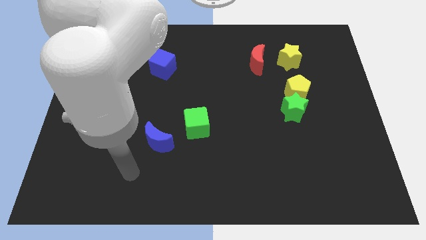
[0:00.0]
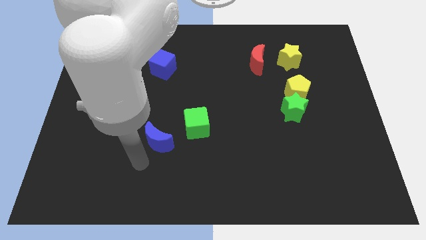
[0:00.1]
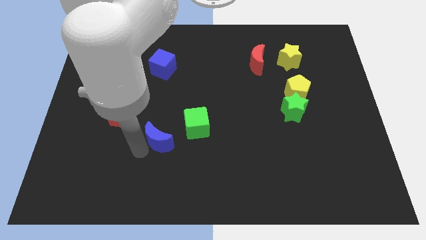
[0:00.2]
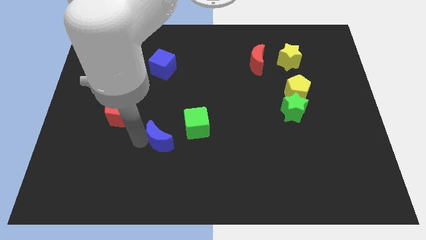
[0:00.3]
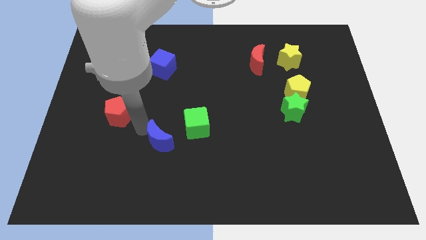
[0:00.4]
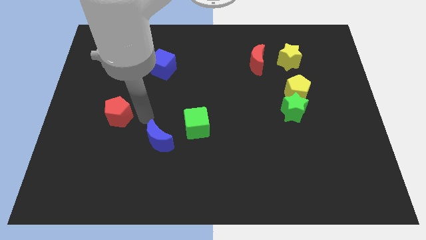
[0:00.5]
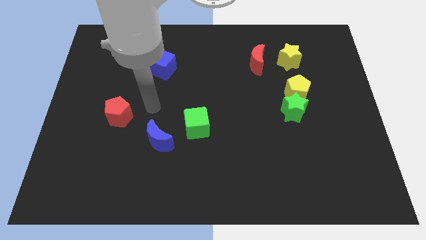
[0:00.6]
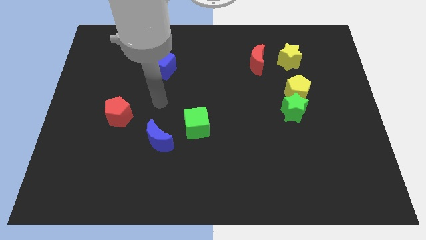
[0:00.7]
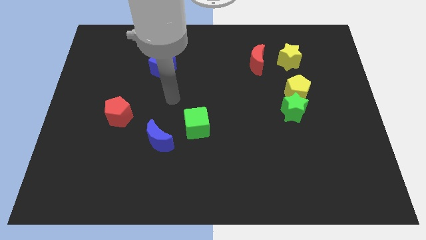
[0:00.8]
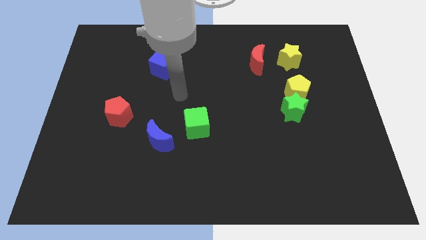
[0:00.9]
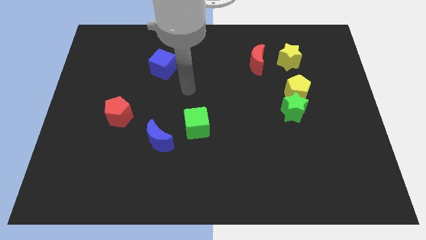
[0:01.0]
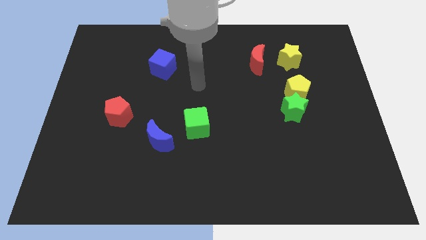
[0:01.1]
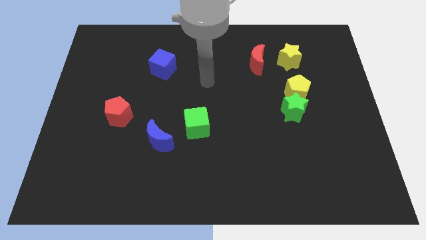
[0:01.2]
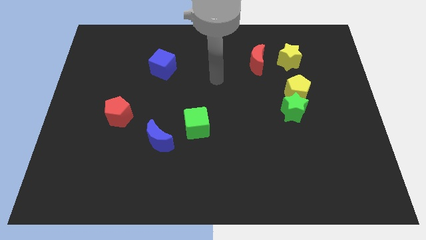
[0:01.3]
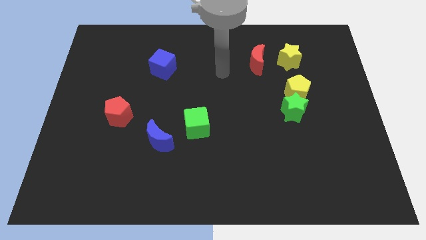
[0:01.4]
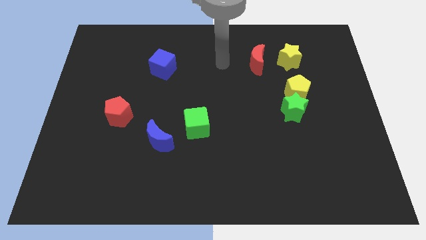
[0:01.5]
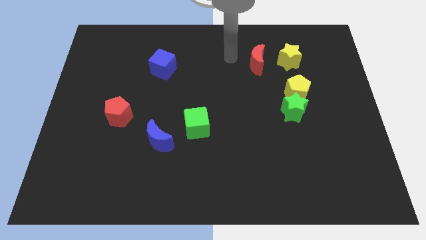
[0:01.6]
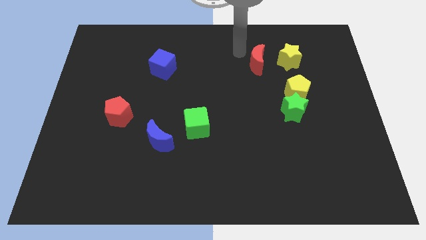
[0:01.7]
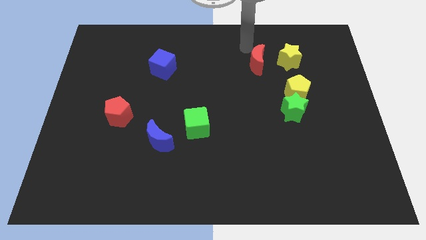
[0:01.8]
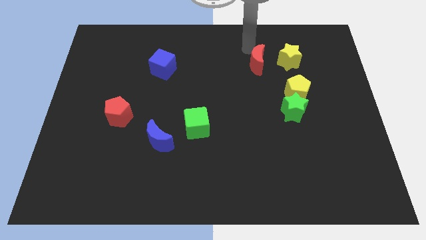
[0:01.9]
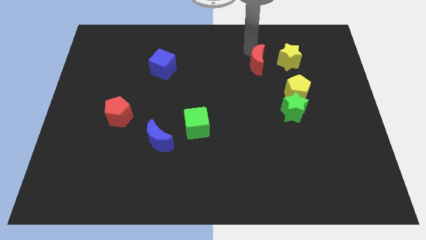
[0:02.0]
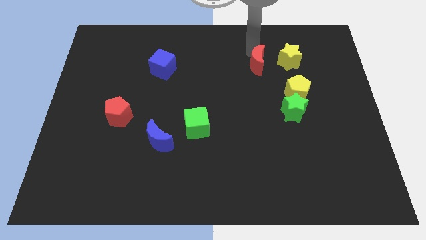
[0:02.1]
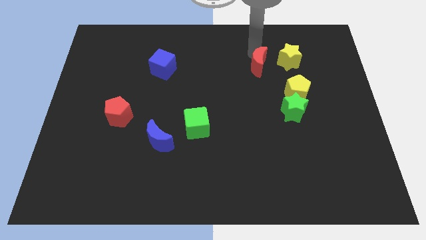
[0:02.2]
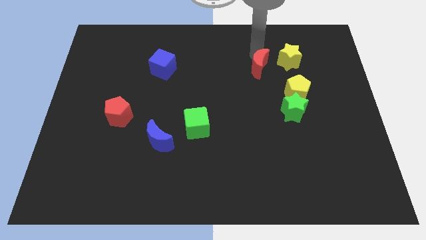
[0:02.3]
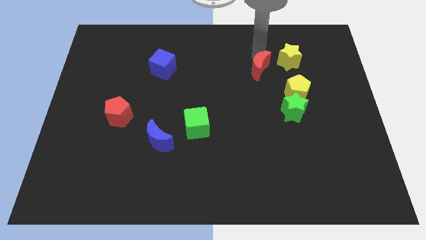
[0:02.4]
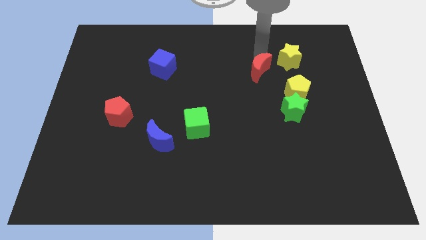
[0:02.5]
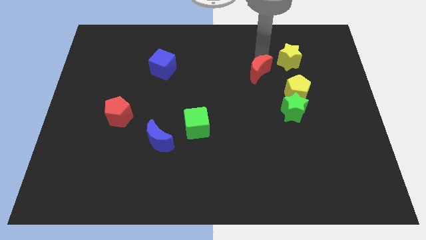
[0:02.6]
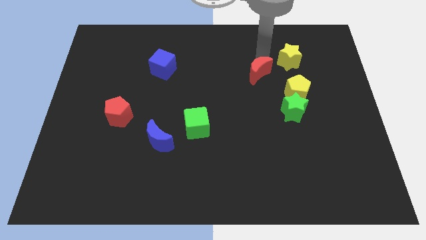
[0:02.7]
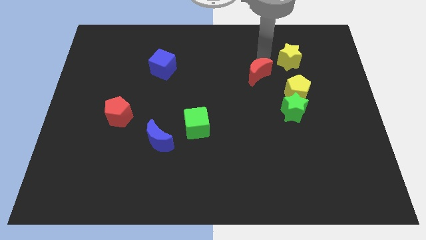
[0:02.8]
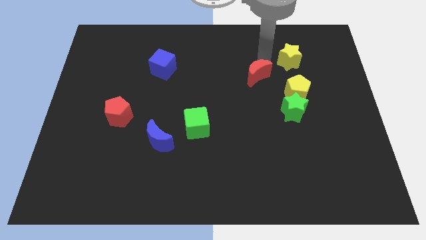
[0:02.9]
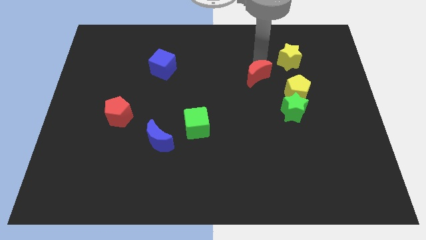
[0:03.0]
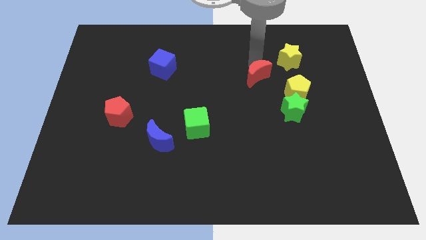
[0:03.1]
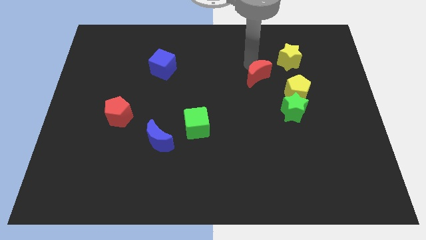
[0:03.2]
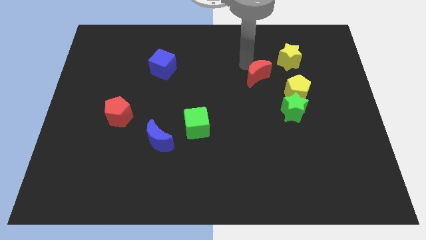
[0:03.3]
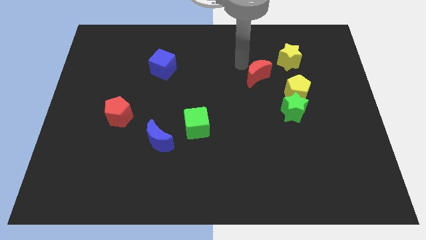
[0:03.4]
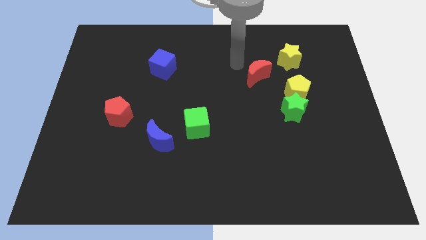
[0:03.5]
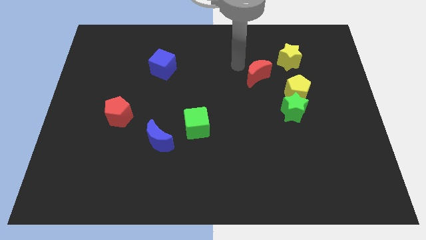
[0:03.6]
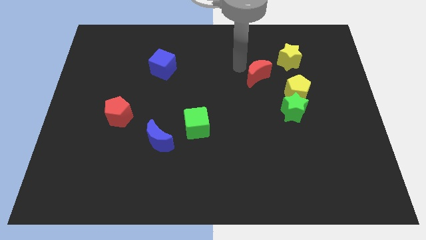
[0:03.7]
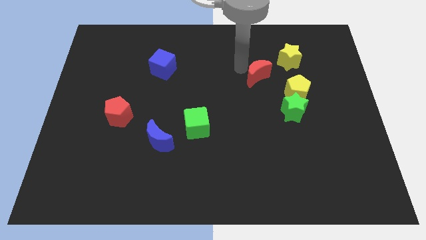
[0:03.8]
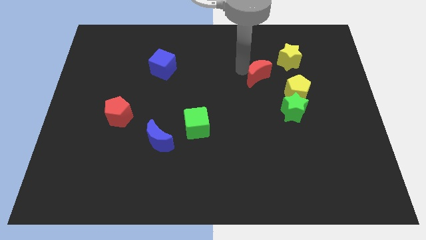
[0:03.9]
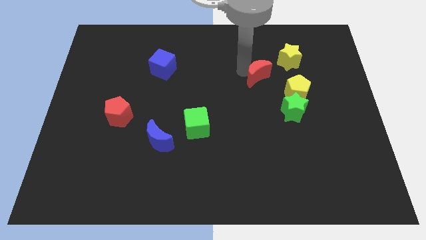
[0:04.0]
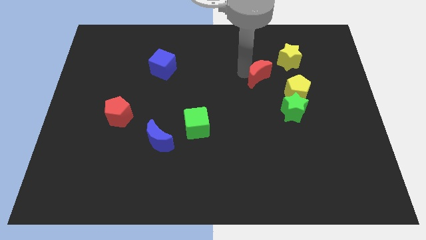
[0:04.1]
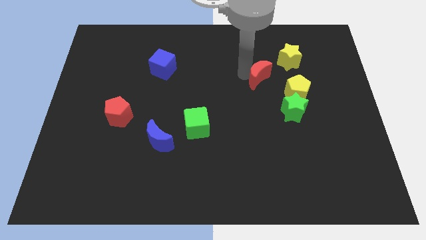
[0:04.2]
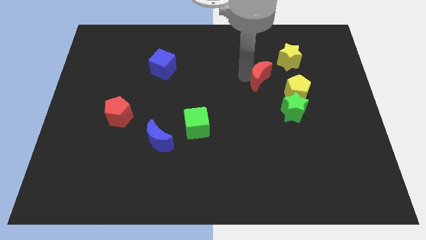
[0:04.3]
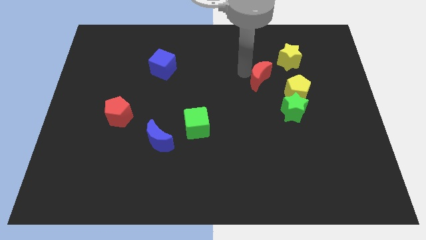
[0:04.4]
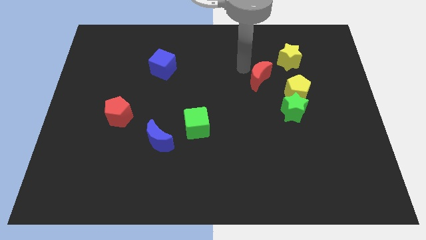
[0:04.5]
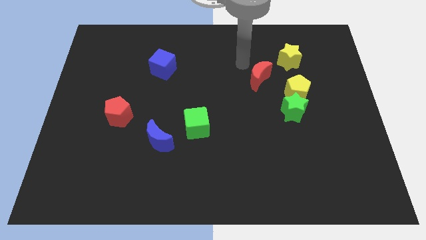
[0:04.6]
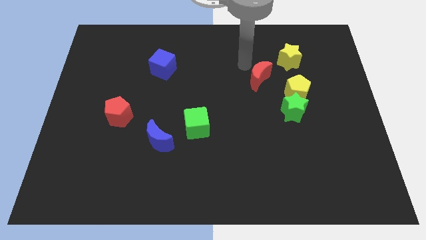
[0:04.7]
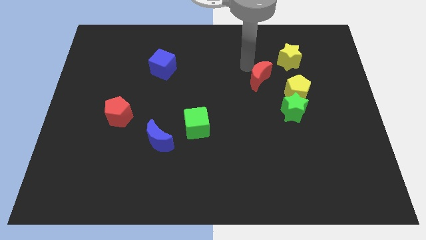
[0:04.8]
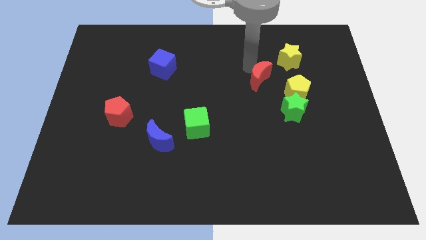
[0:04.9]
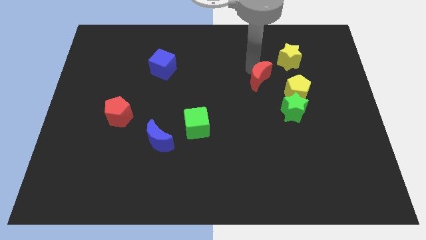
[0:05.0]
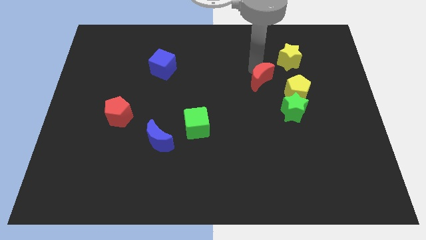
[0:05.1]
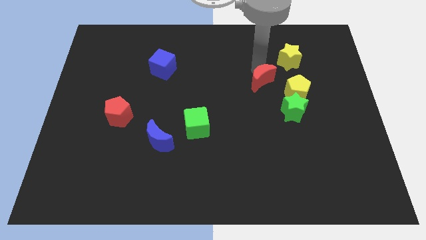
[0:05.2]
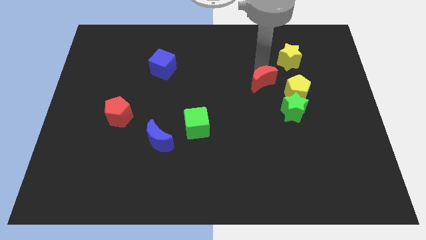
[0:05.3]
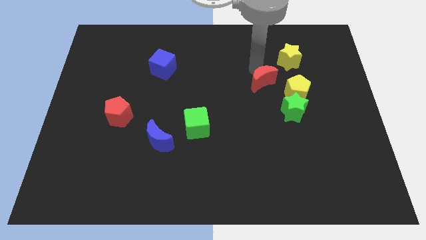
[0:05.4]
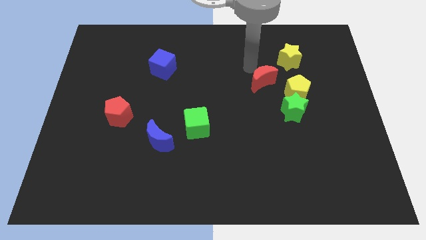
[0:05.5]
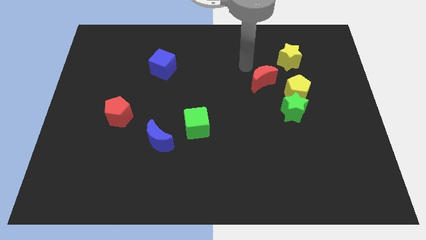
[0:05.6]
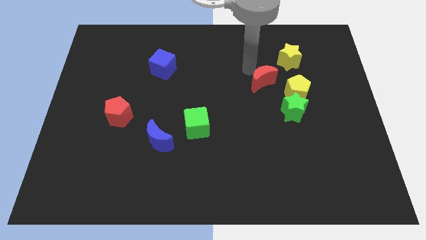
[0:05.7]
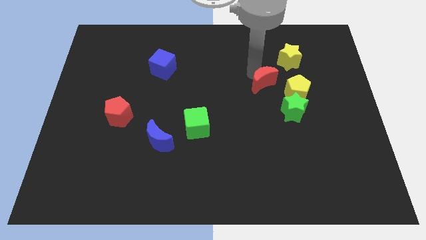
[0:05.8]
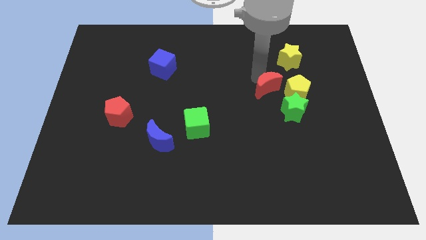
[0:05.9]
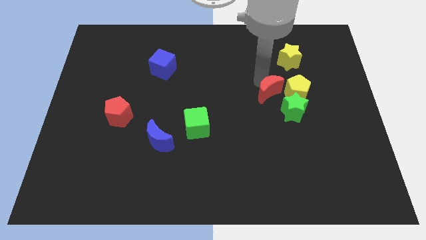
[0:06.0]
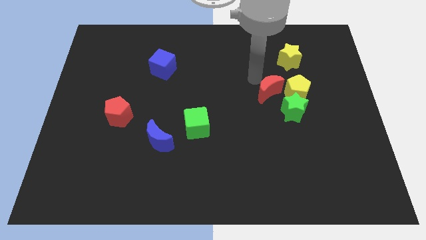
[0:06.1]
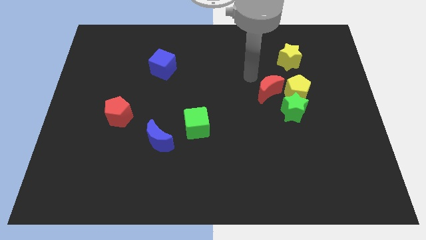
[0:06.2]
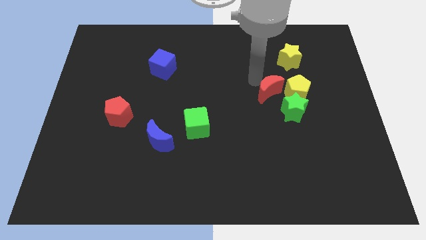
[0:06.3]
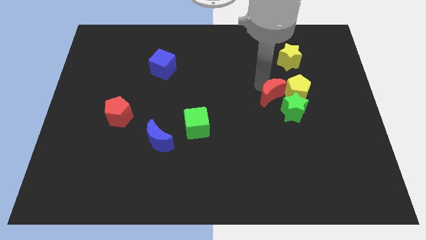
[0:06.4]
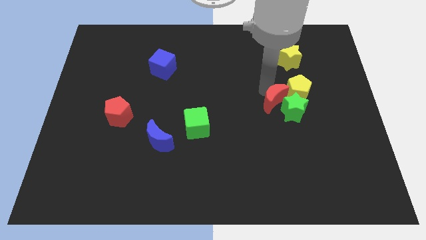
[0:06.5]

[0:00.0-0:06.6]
put the red moon next to the green star

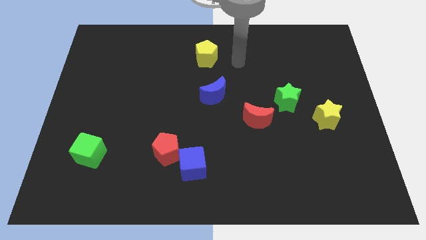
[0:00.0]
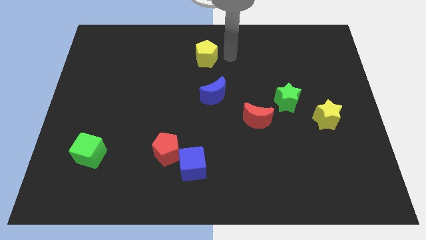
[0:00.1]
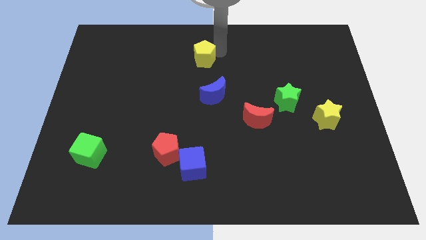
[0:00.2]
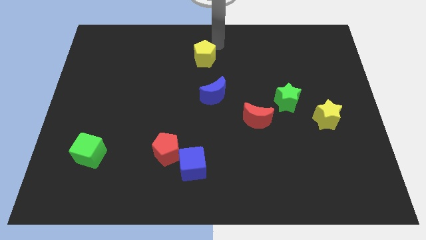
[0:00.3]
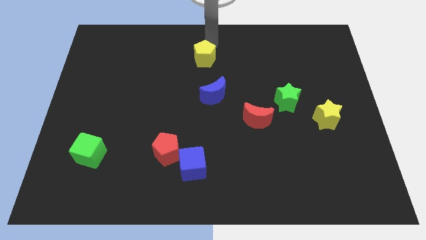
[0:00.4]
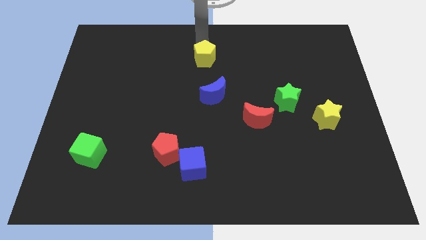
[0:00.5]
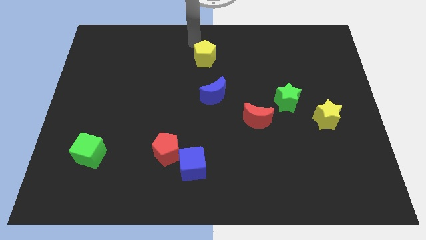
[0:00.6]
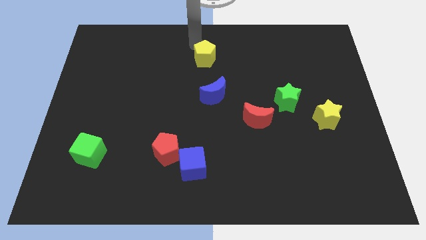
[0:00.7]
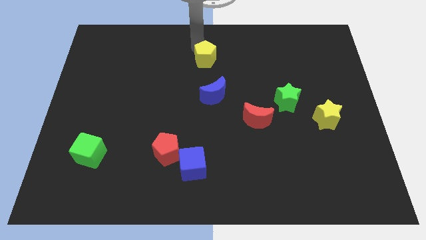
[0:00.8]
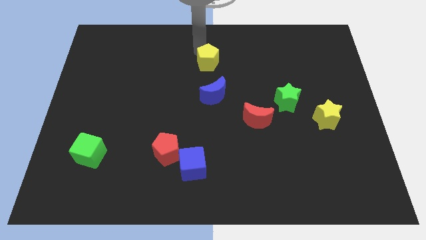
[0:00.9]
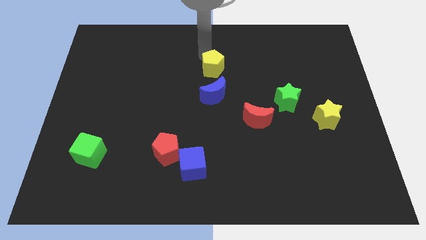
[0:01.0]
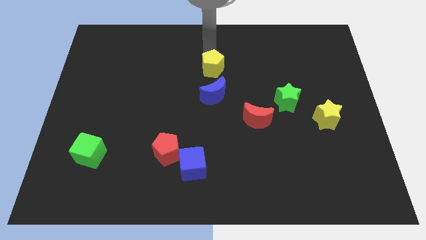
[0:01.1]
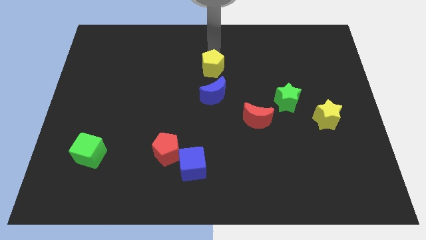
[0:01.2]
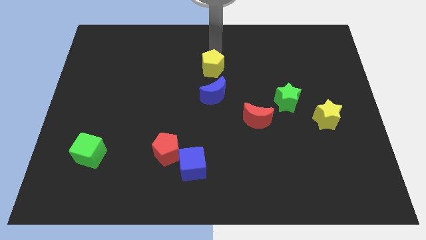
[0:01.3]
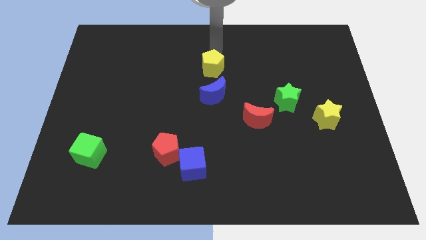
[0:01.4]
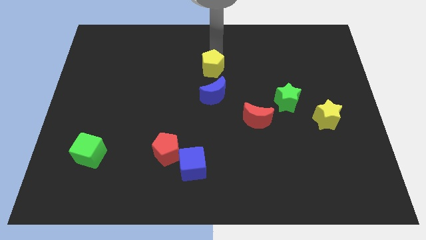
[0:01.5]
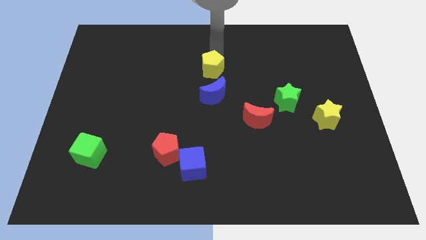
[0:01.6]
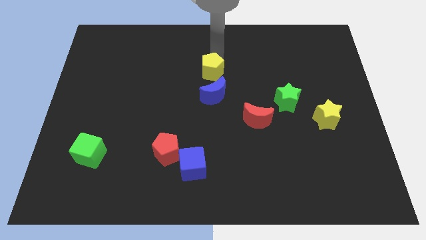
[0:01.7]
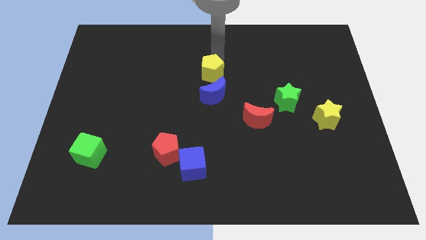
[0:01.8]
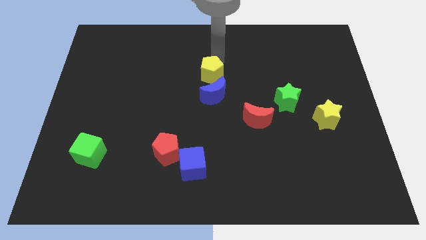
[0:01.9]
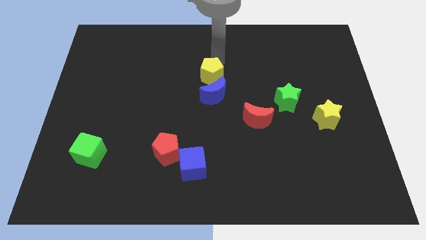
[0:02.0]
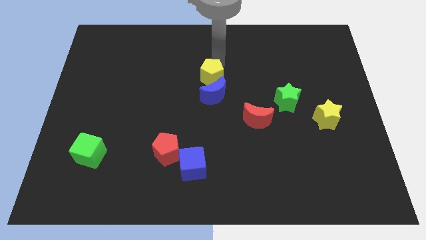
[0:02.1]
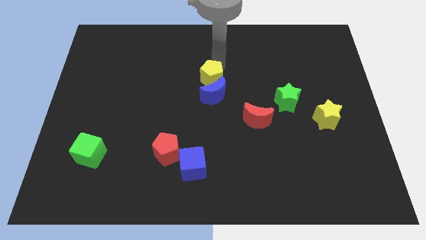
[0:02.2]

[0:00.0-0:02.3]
push the yellow pentagon to the blue moon
